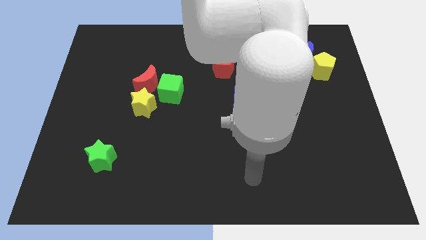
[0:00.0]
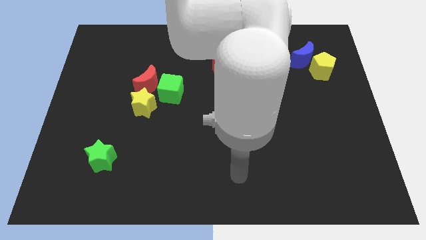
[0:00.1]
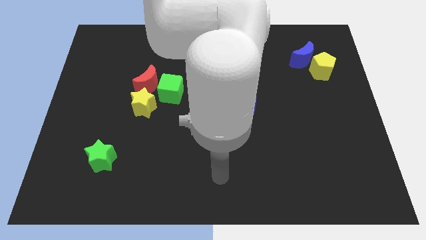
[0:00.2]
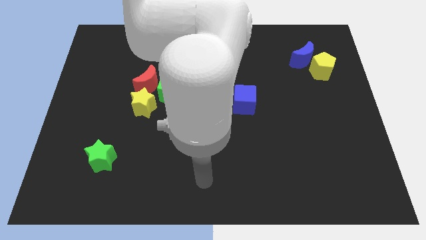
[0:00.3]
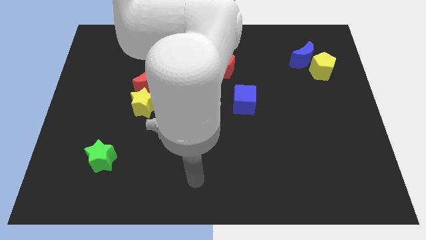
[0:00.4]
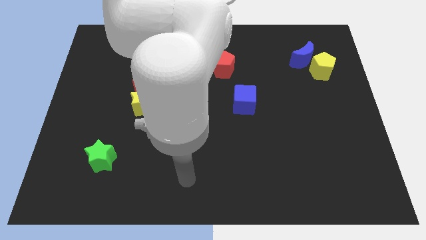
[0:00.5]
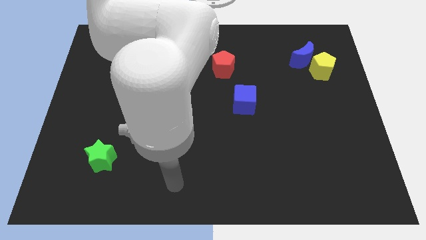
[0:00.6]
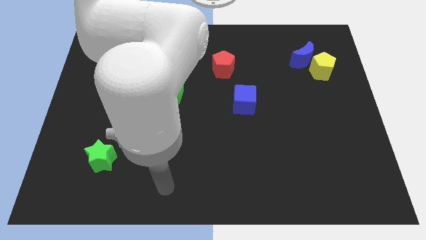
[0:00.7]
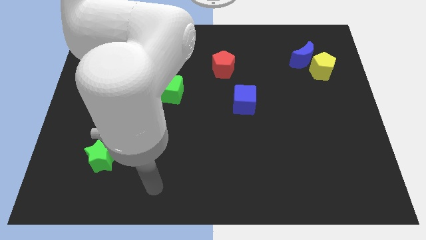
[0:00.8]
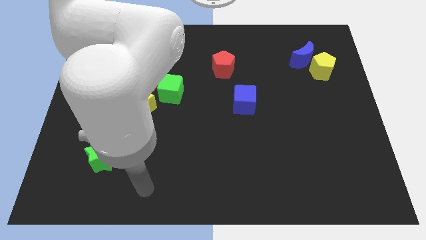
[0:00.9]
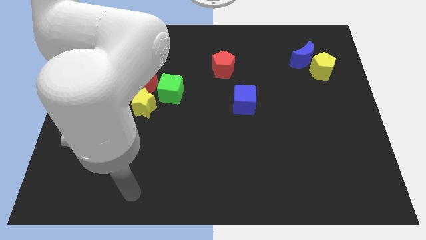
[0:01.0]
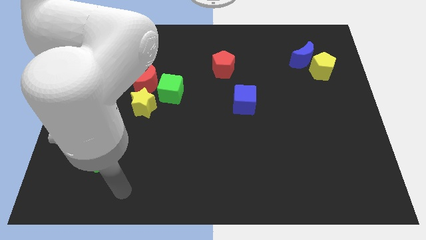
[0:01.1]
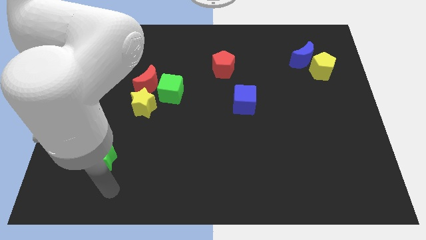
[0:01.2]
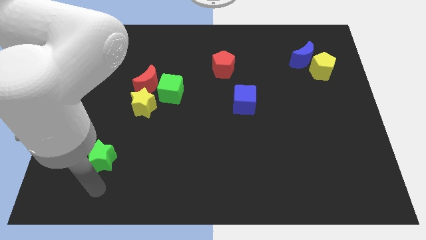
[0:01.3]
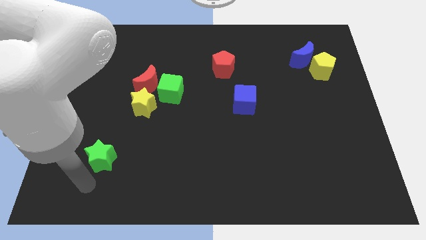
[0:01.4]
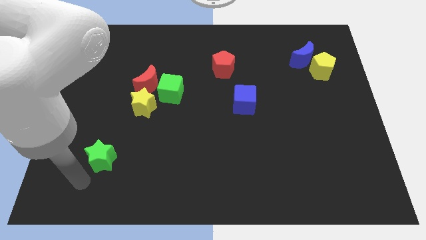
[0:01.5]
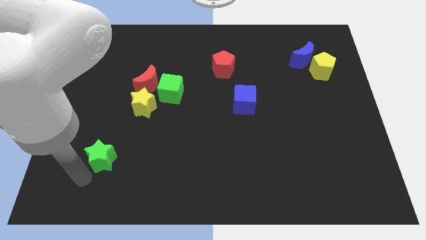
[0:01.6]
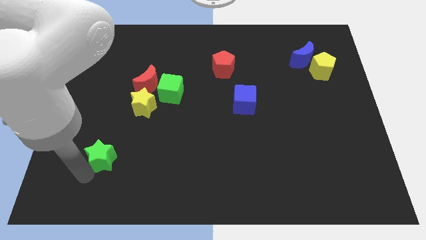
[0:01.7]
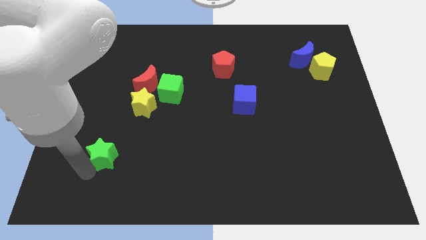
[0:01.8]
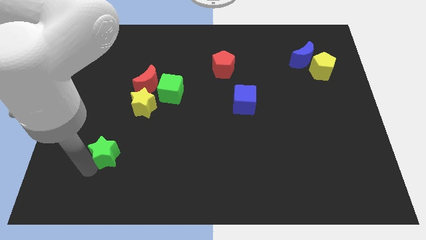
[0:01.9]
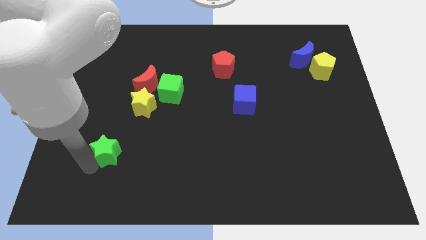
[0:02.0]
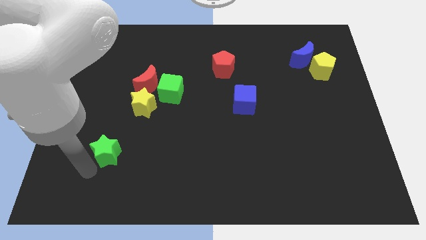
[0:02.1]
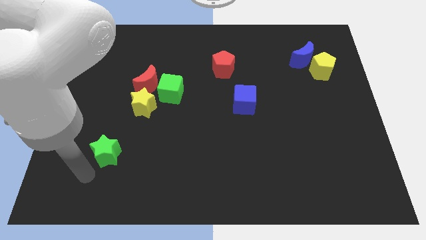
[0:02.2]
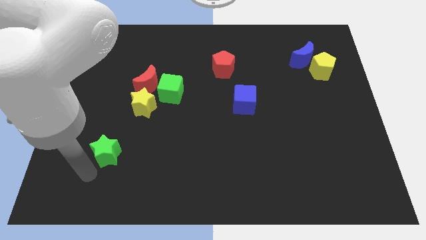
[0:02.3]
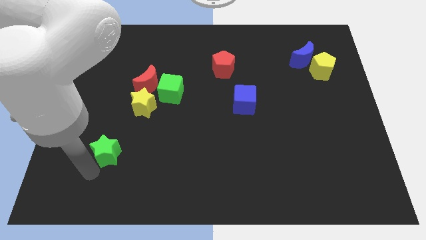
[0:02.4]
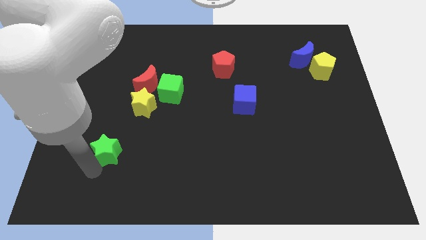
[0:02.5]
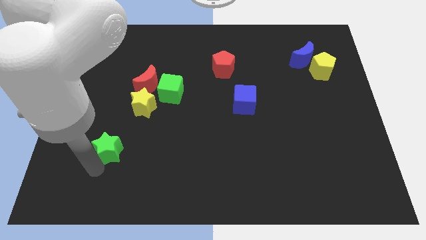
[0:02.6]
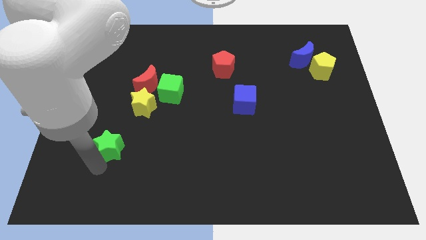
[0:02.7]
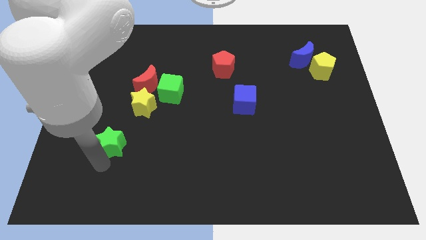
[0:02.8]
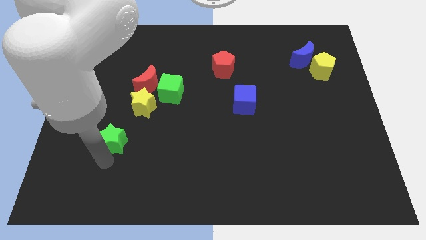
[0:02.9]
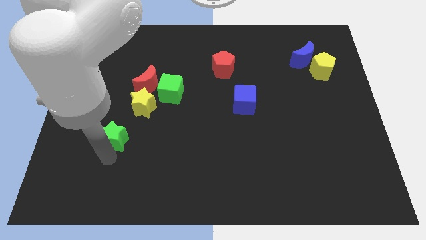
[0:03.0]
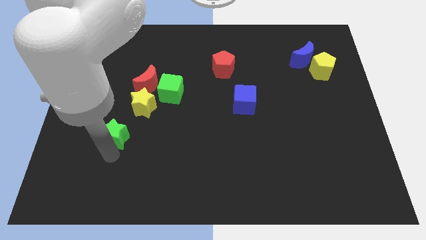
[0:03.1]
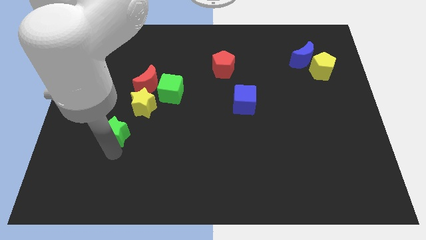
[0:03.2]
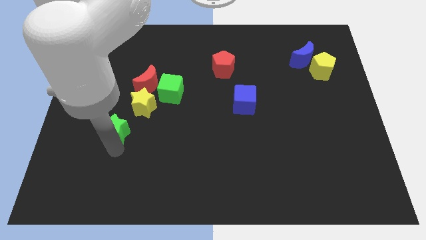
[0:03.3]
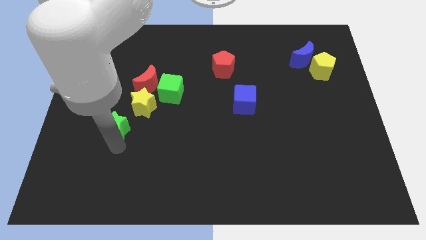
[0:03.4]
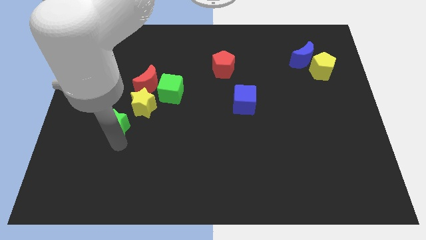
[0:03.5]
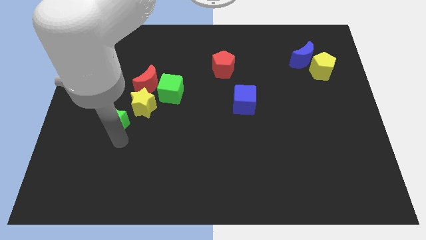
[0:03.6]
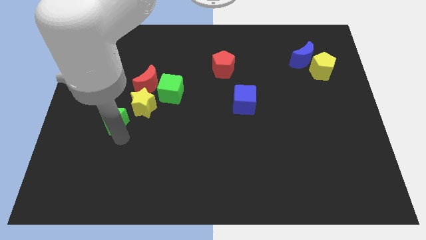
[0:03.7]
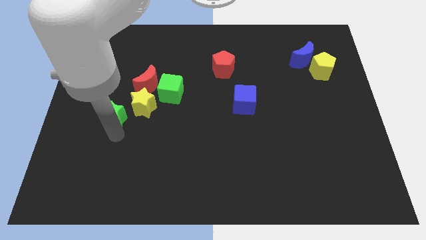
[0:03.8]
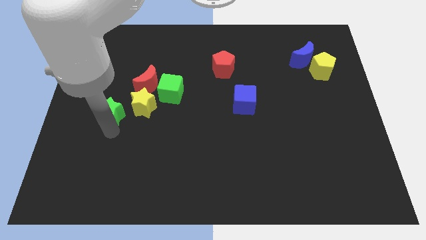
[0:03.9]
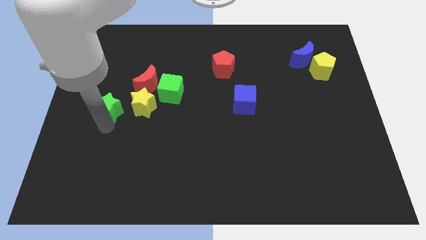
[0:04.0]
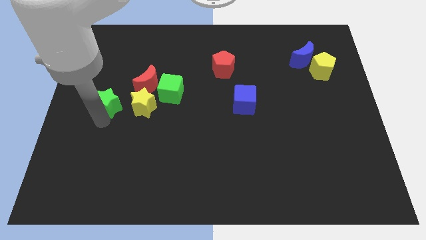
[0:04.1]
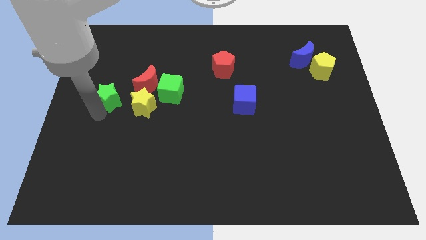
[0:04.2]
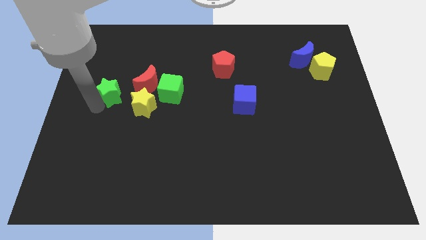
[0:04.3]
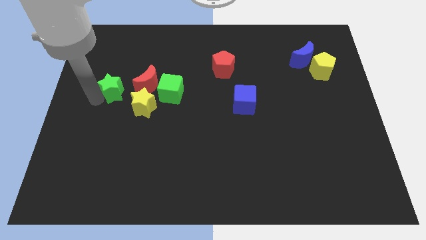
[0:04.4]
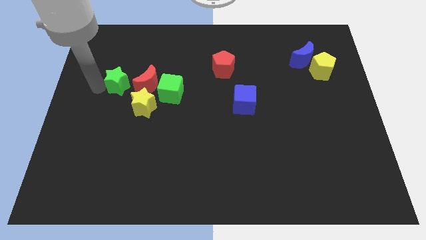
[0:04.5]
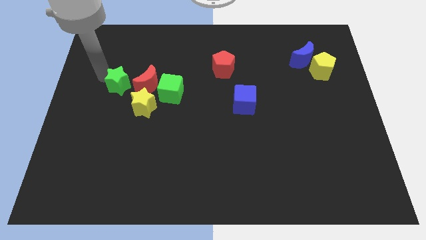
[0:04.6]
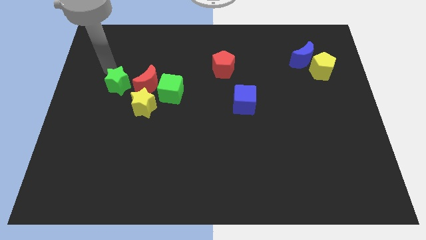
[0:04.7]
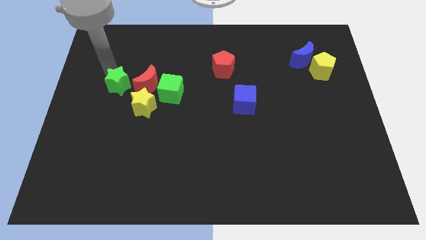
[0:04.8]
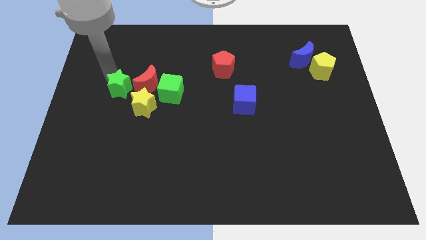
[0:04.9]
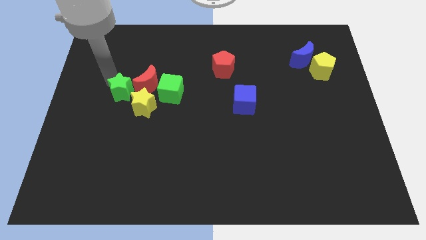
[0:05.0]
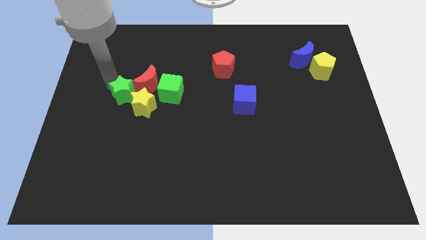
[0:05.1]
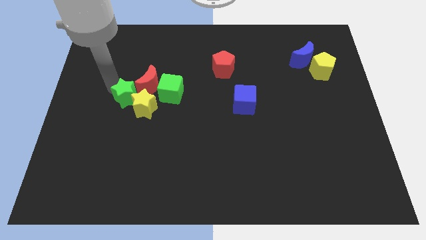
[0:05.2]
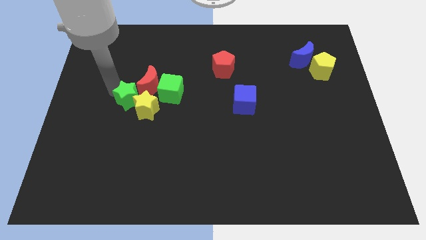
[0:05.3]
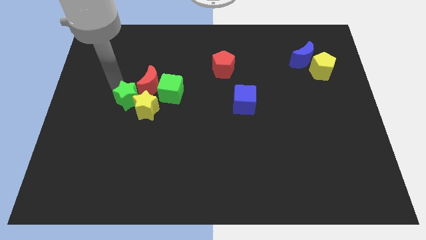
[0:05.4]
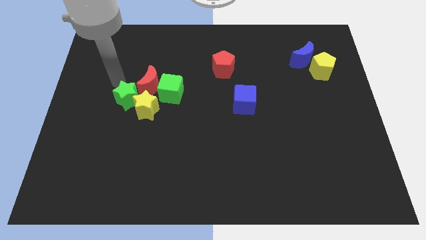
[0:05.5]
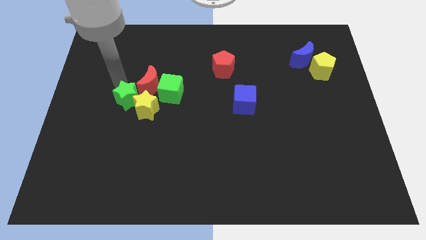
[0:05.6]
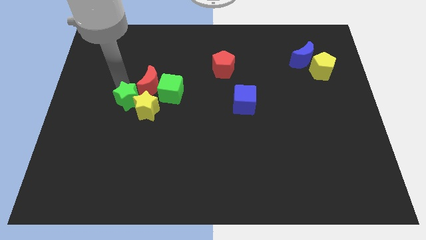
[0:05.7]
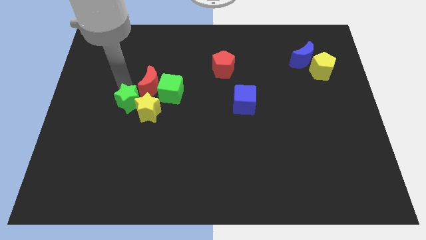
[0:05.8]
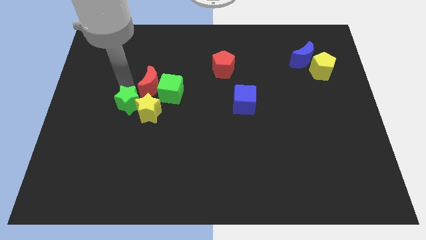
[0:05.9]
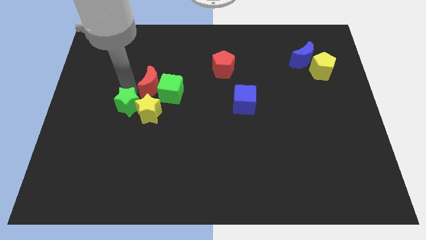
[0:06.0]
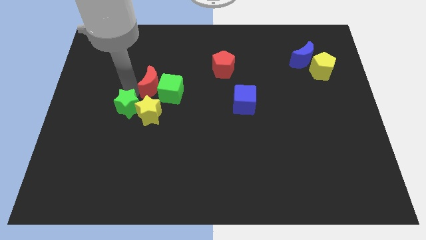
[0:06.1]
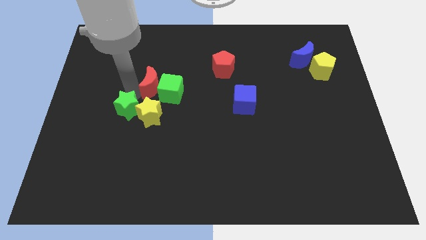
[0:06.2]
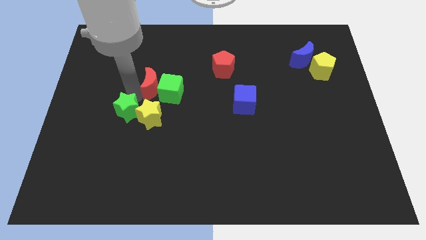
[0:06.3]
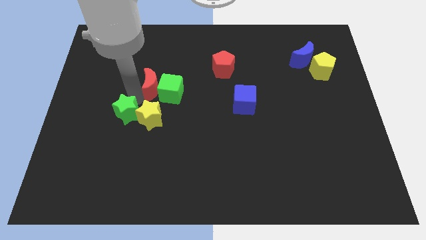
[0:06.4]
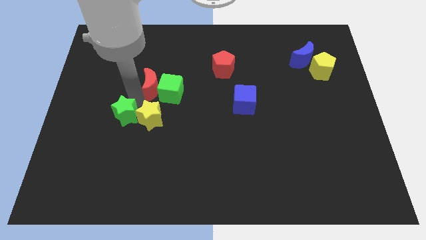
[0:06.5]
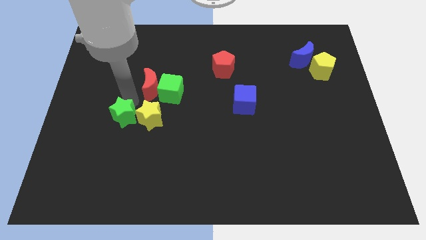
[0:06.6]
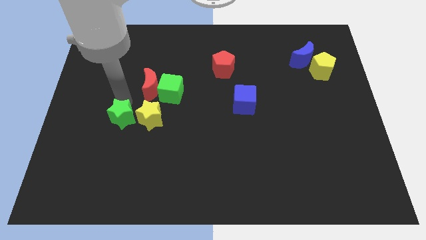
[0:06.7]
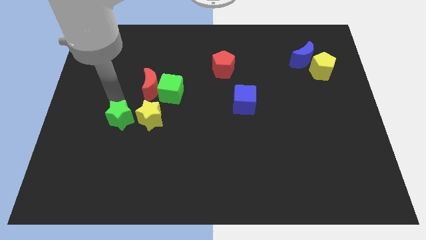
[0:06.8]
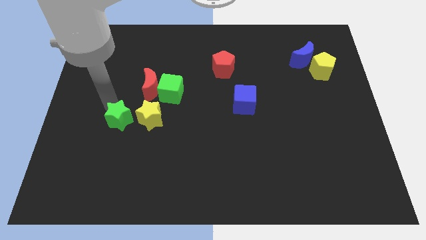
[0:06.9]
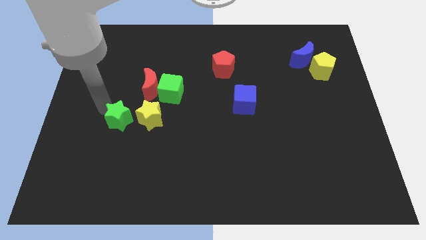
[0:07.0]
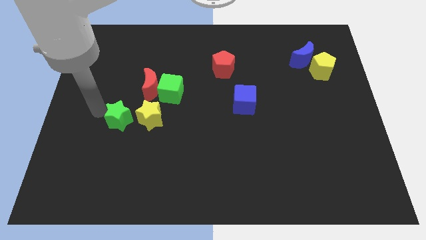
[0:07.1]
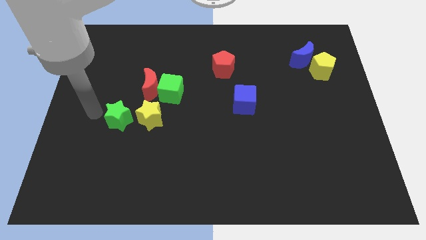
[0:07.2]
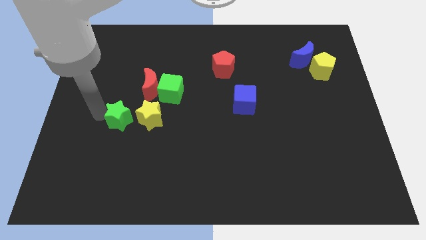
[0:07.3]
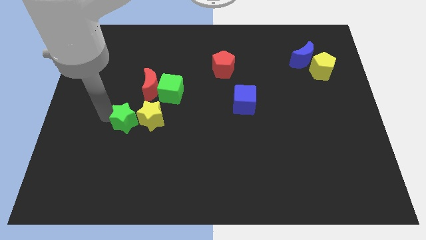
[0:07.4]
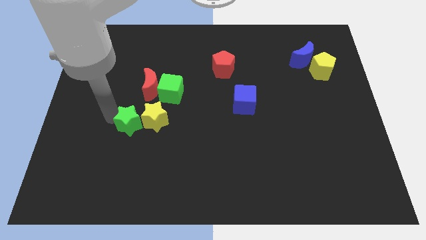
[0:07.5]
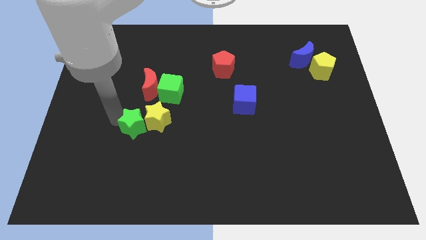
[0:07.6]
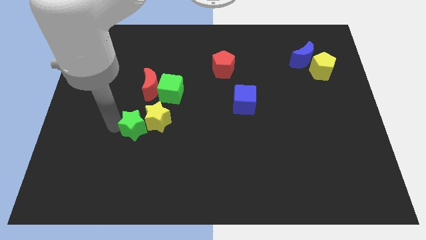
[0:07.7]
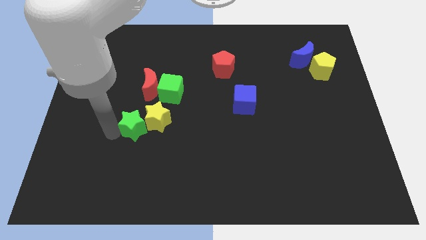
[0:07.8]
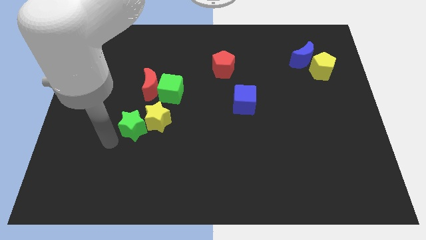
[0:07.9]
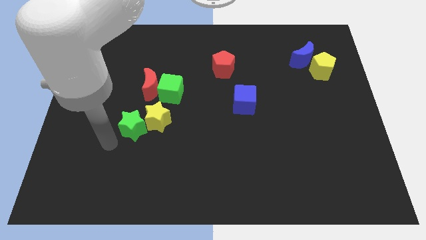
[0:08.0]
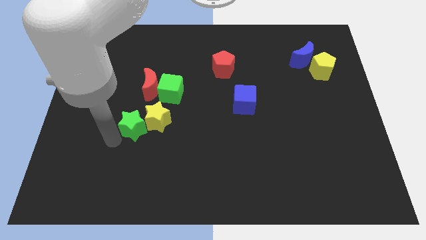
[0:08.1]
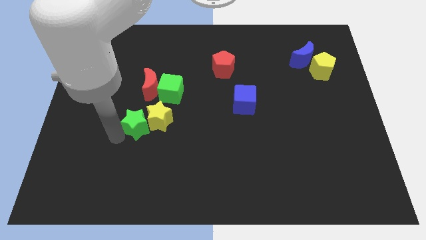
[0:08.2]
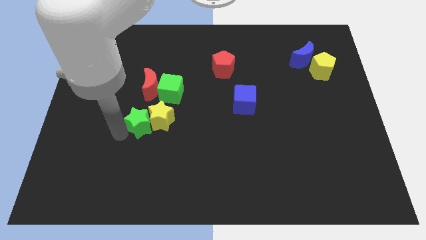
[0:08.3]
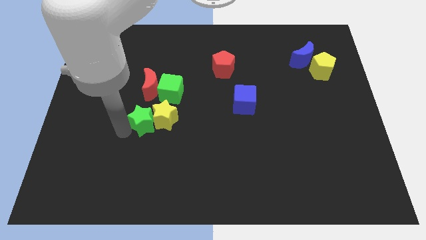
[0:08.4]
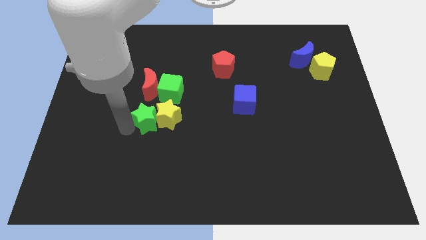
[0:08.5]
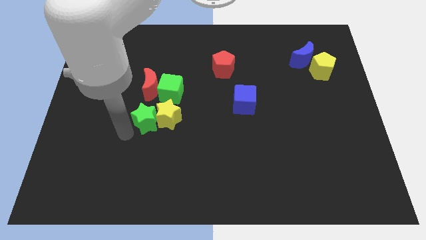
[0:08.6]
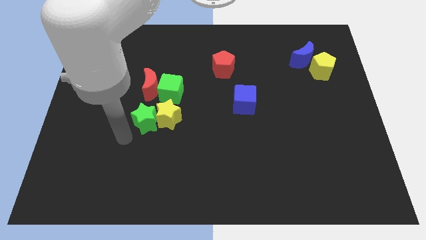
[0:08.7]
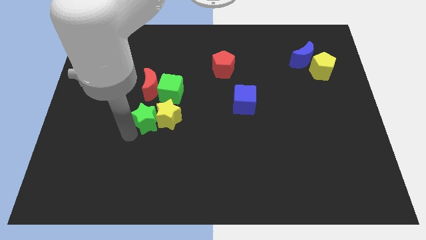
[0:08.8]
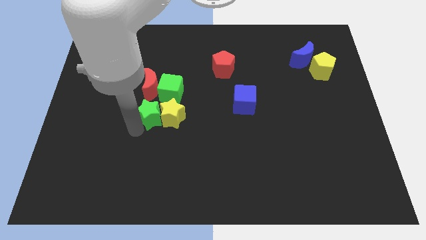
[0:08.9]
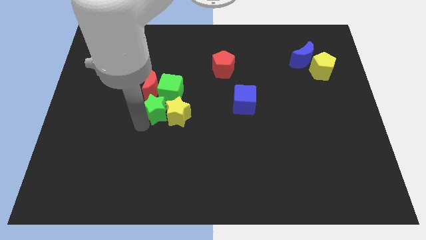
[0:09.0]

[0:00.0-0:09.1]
put the green star diagonally down and to the right of the red moon
